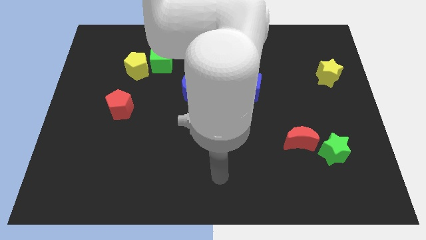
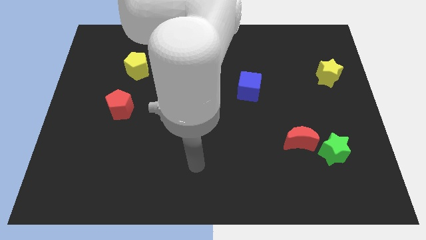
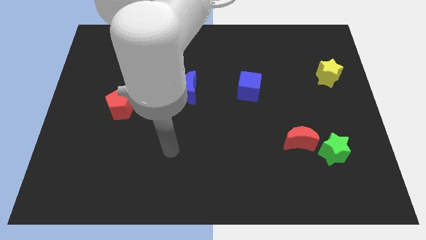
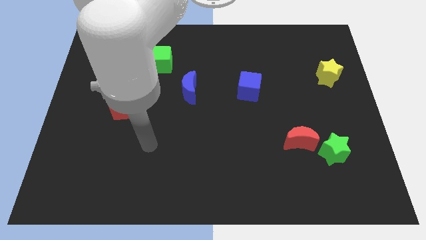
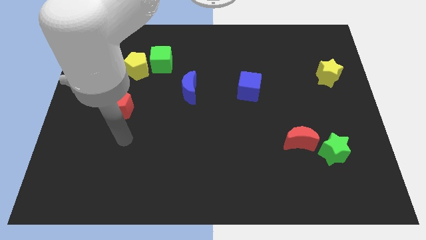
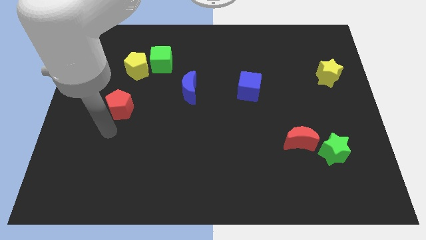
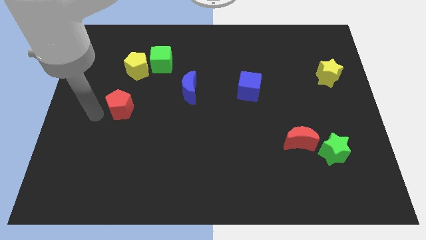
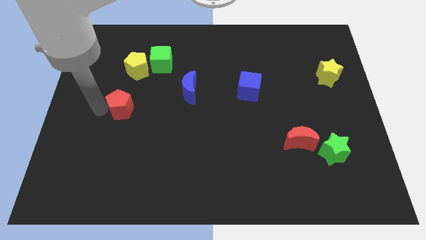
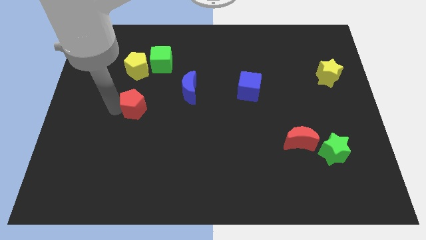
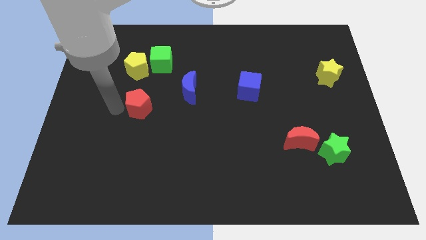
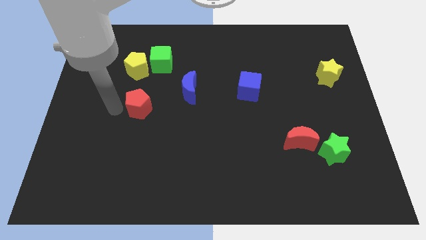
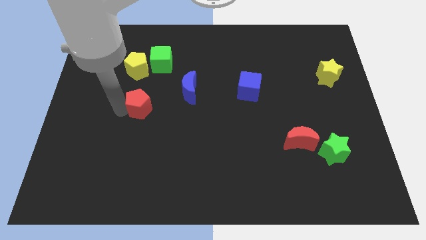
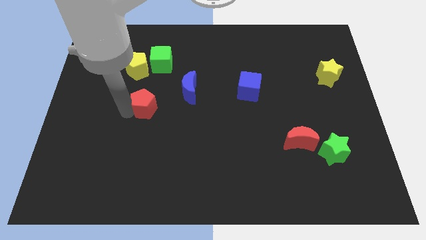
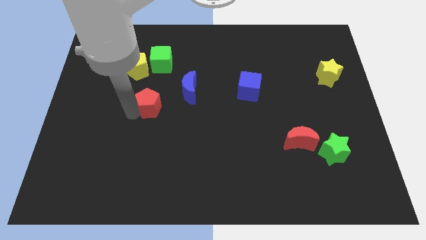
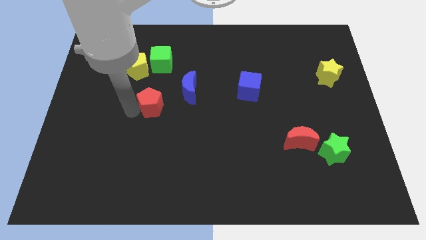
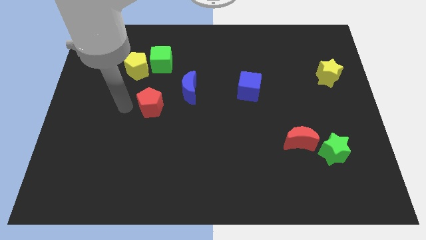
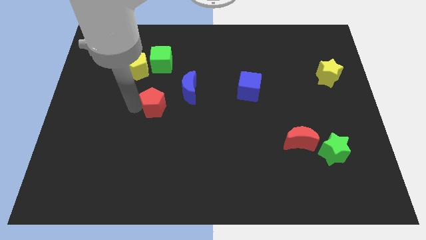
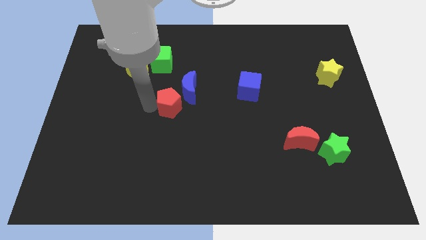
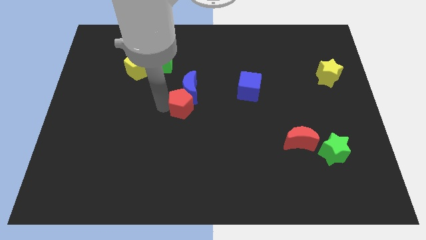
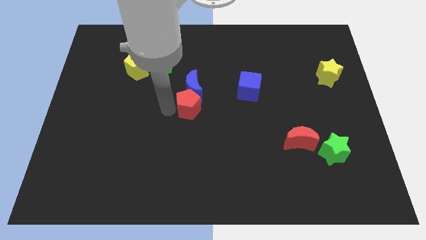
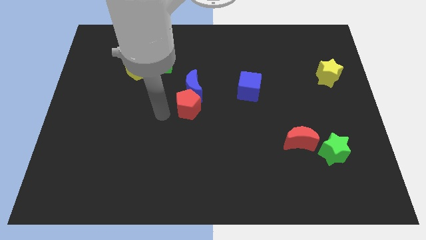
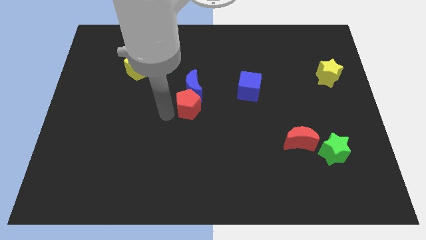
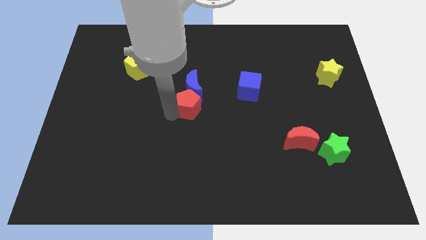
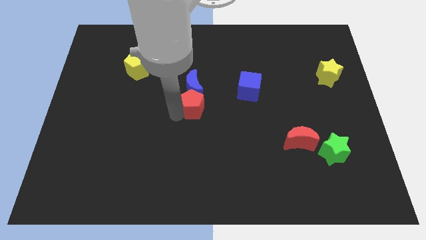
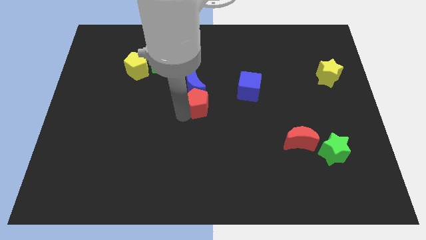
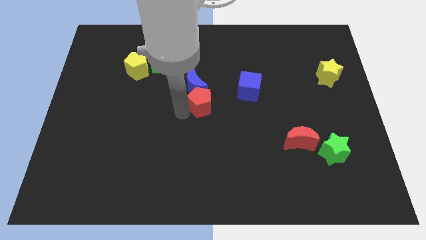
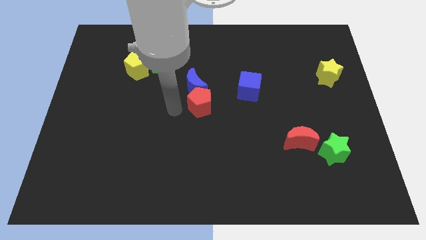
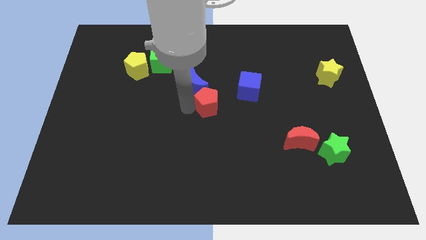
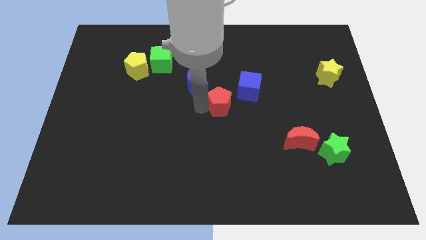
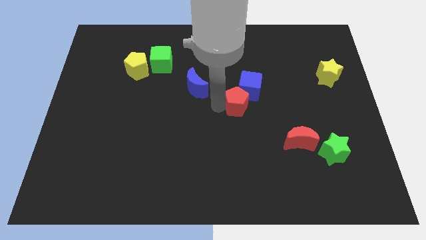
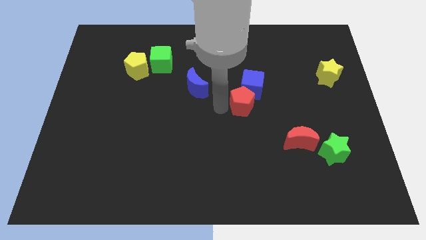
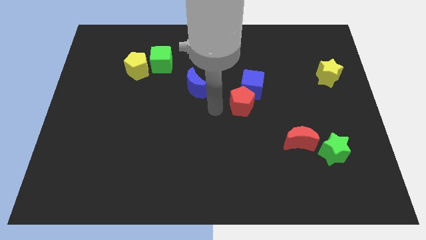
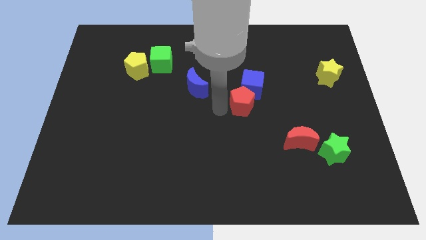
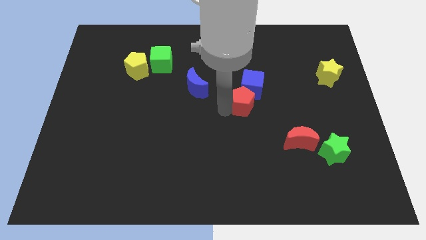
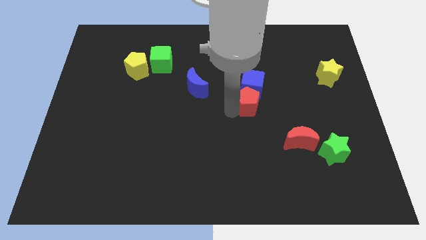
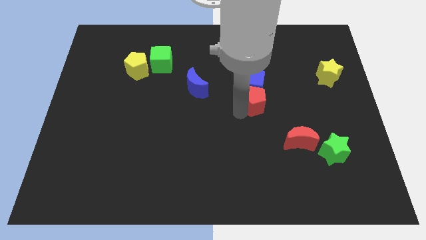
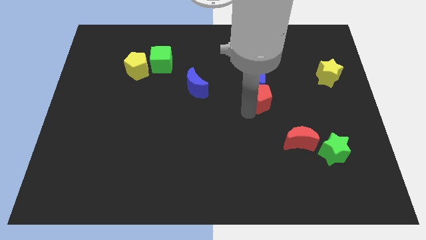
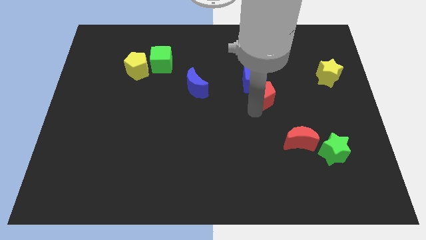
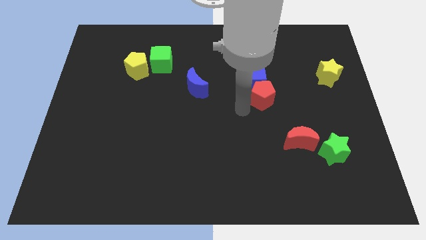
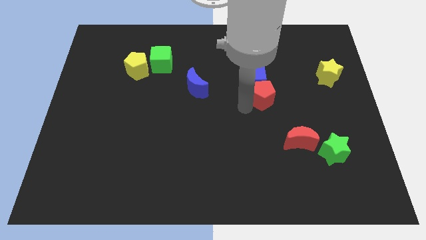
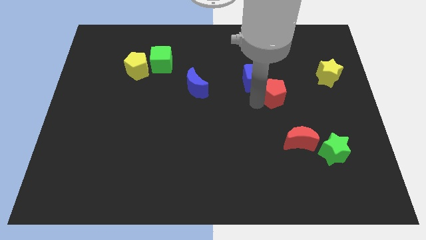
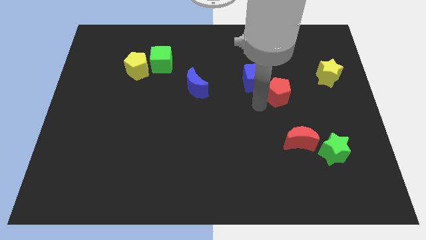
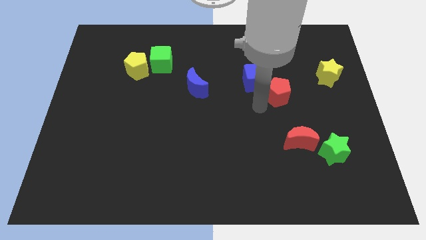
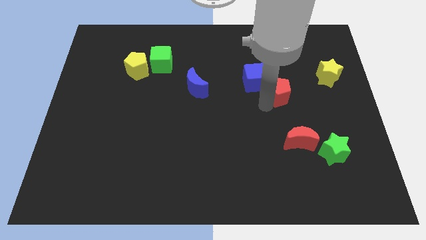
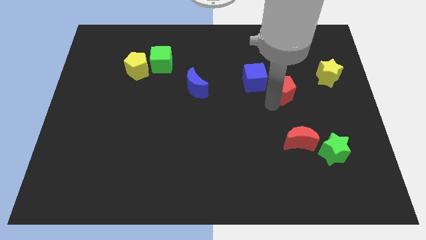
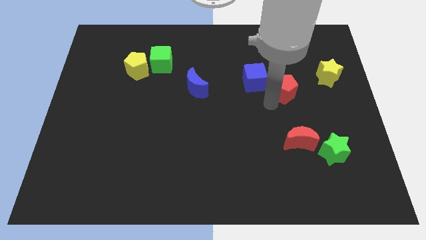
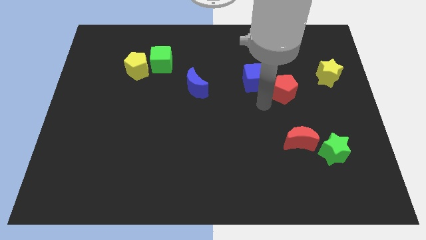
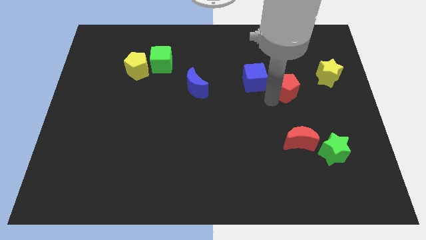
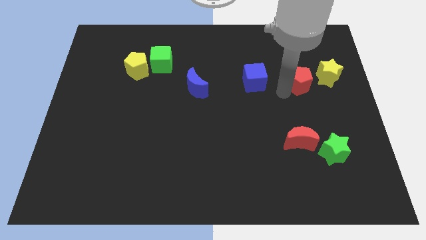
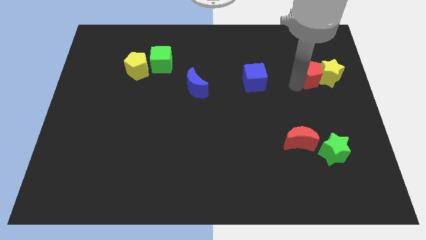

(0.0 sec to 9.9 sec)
push the red pentagon close to the yellow star

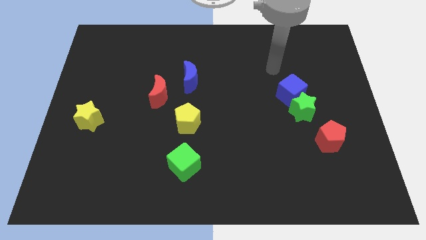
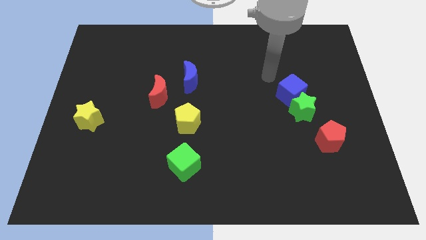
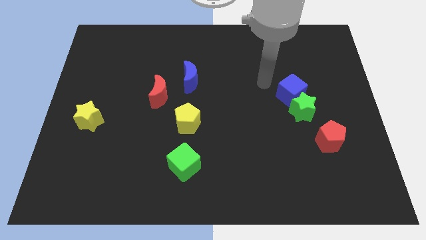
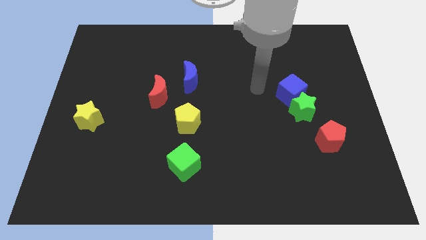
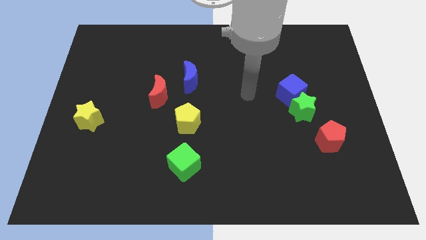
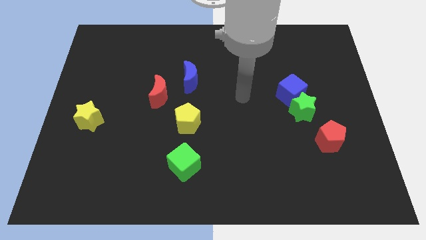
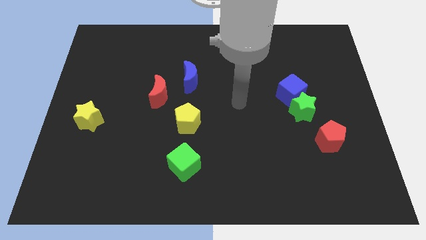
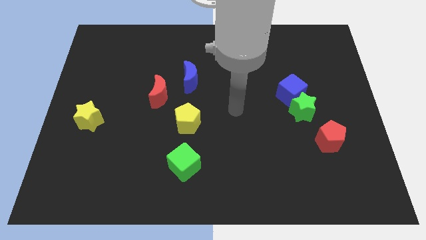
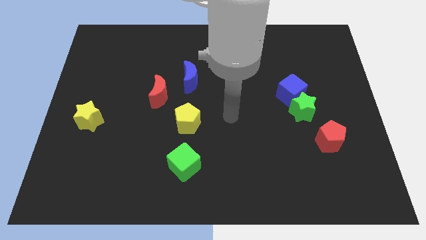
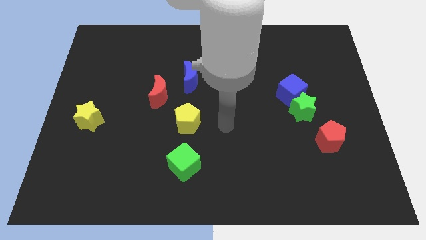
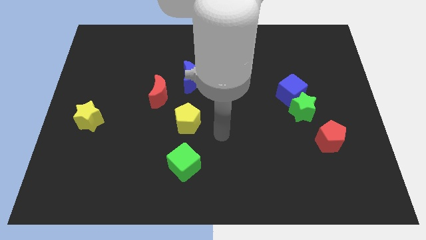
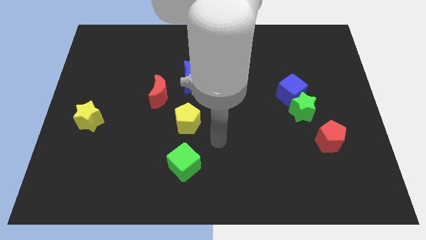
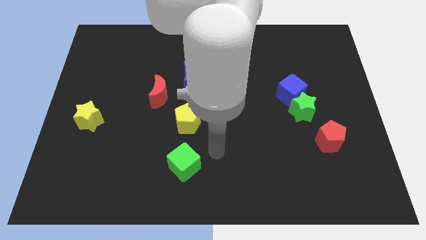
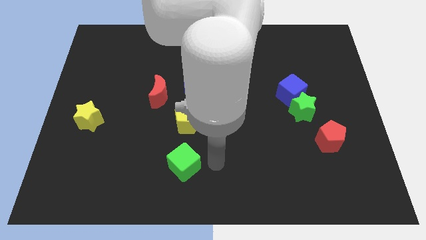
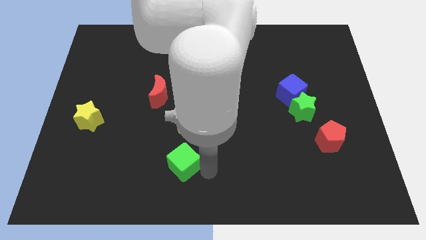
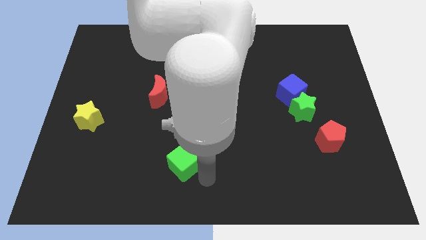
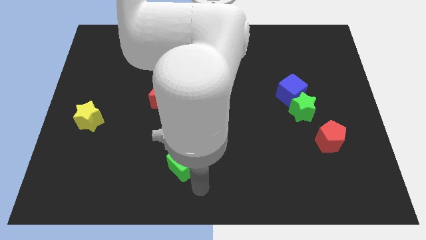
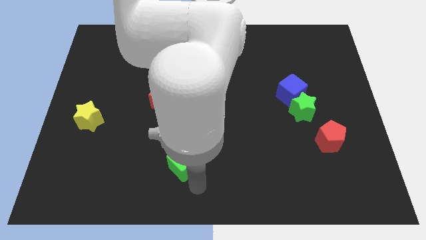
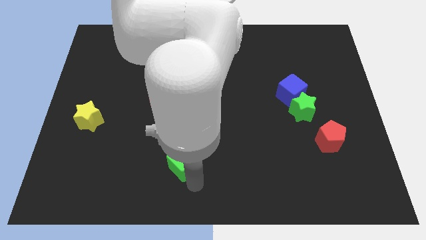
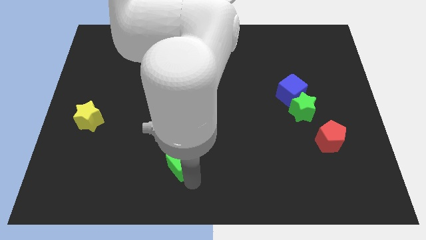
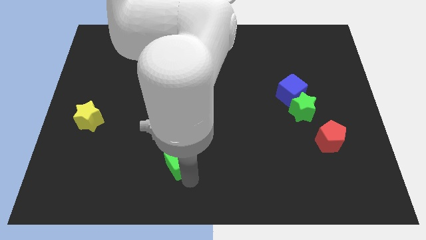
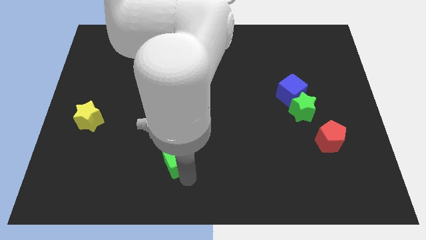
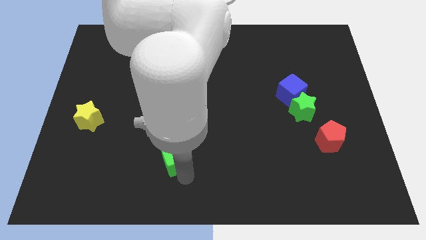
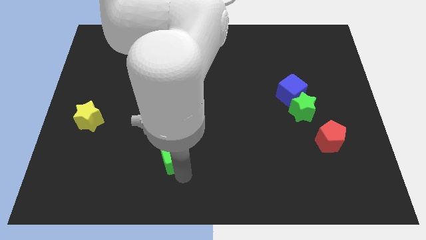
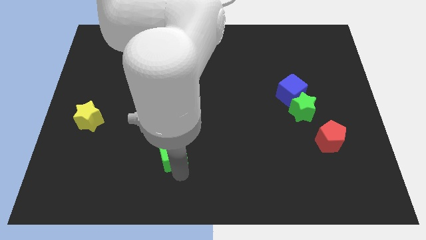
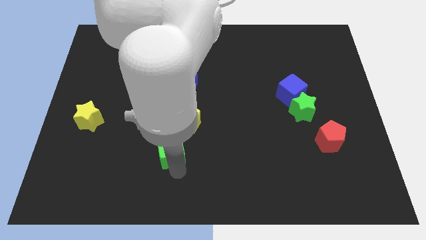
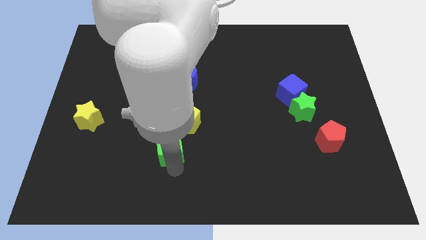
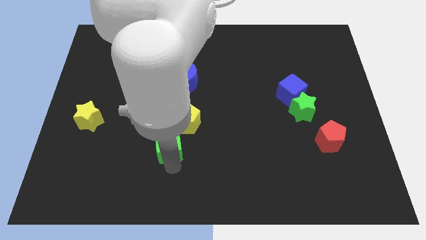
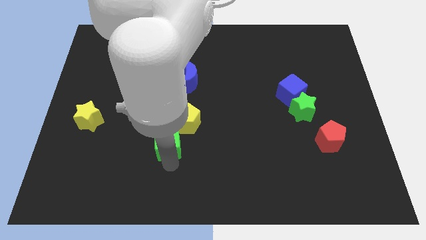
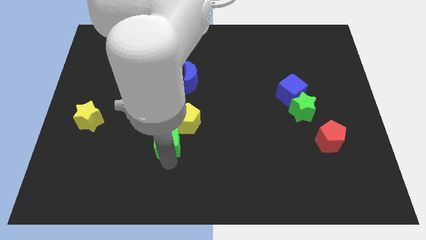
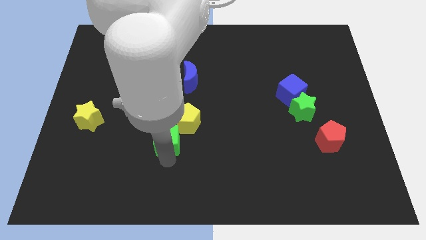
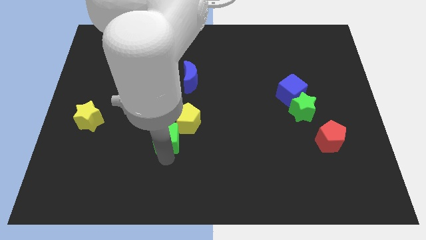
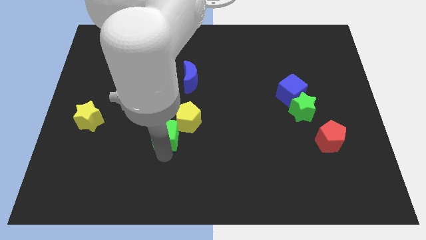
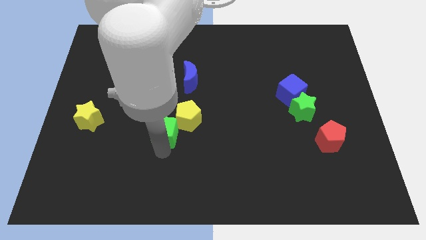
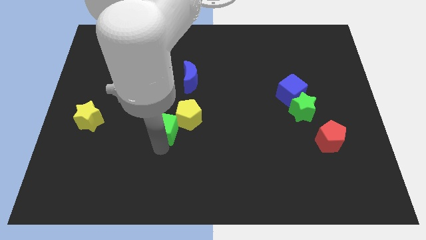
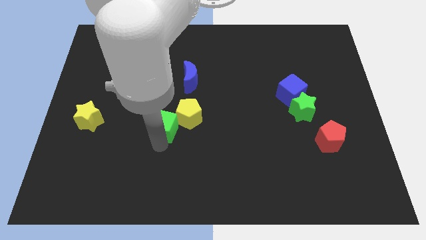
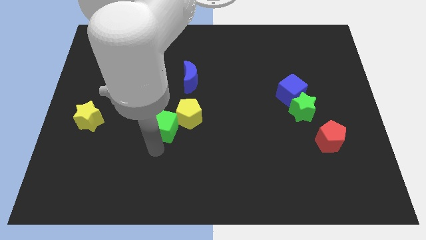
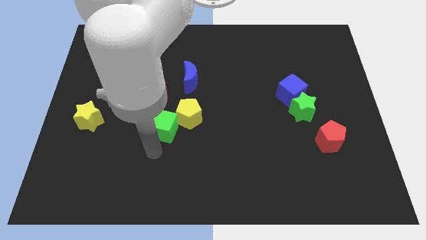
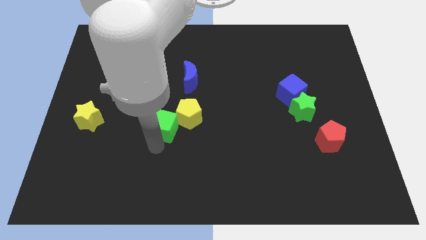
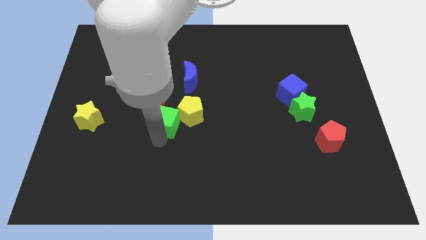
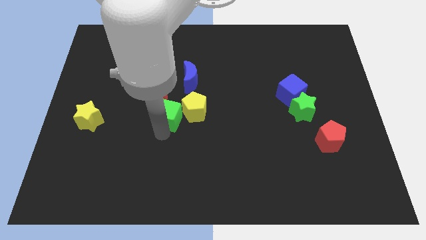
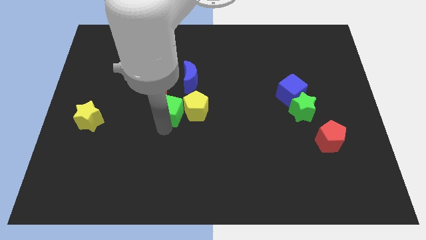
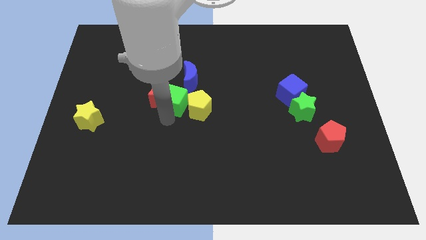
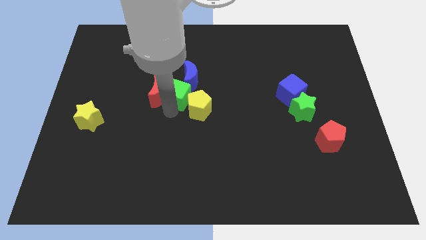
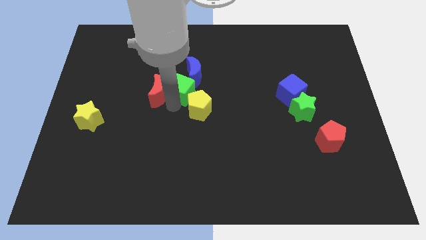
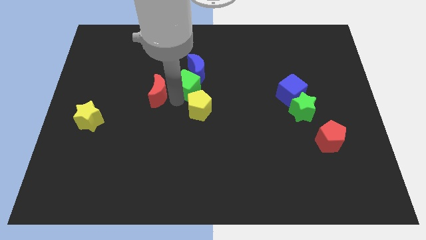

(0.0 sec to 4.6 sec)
put the green cube next to the blue moon
